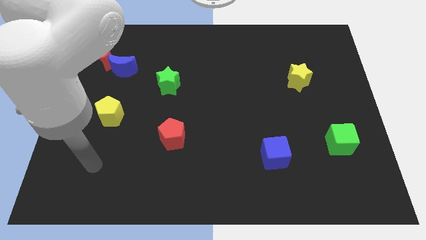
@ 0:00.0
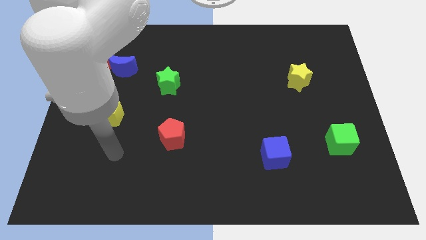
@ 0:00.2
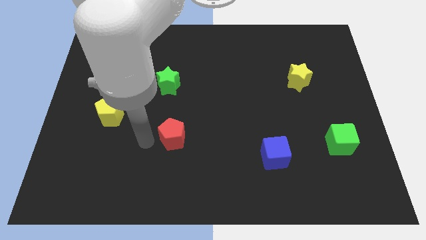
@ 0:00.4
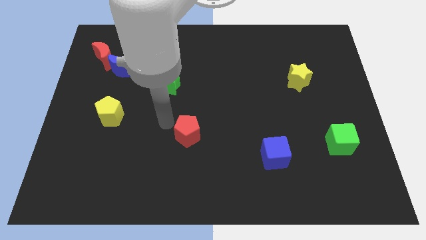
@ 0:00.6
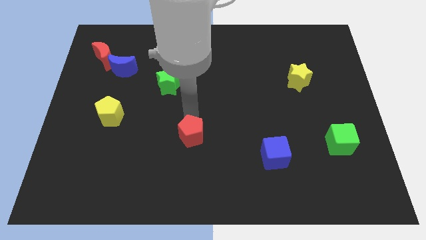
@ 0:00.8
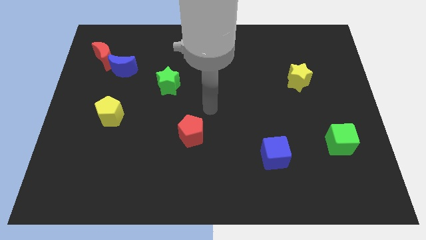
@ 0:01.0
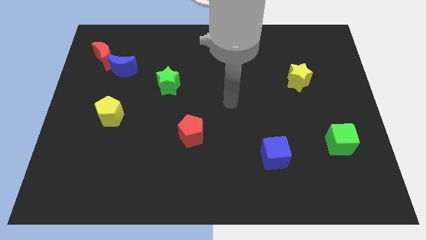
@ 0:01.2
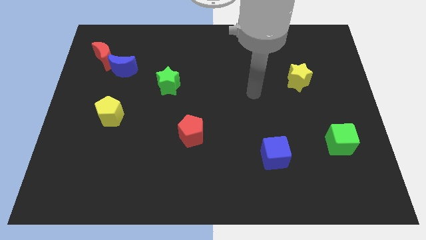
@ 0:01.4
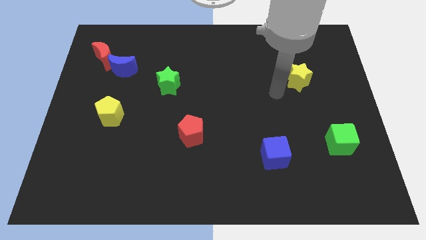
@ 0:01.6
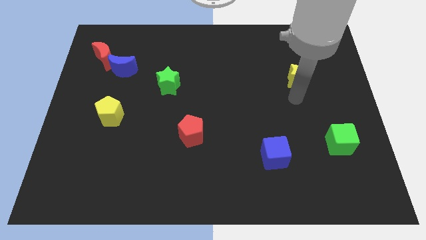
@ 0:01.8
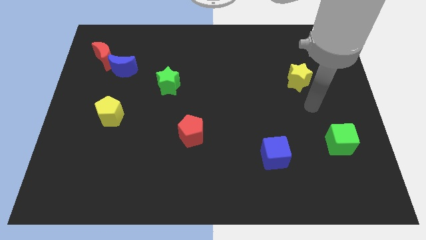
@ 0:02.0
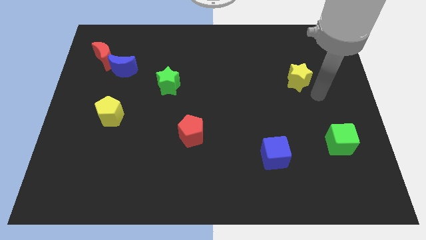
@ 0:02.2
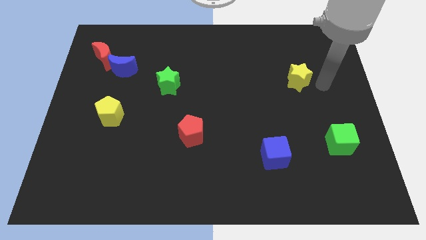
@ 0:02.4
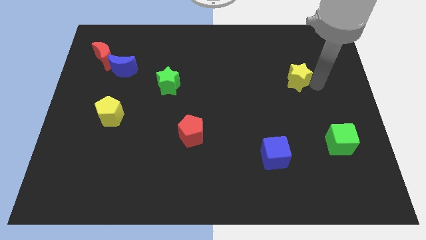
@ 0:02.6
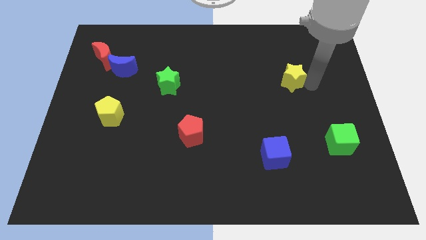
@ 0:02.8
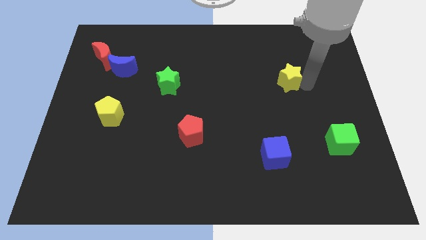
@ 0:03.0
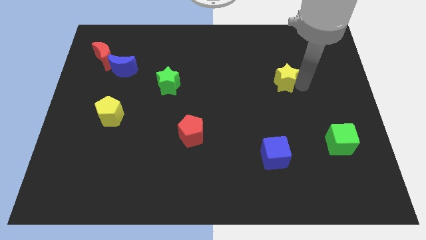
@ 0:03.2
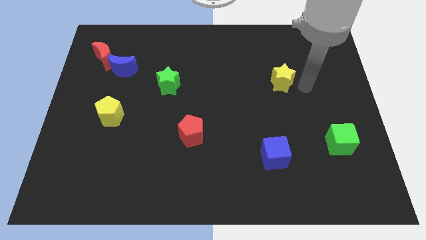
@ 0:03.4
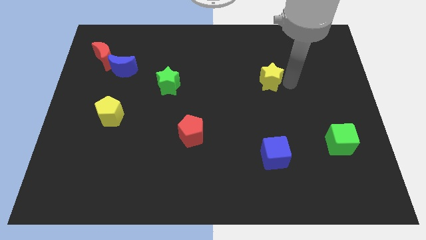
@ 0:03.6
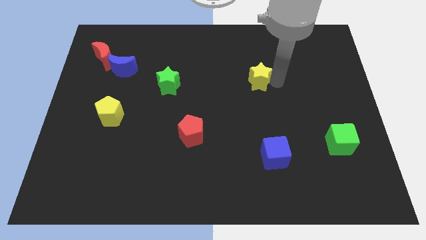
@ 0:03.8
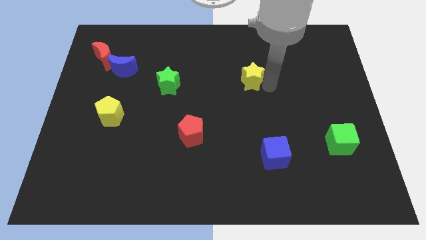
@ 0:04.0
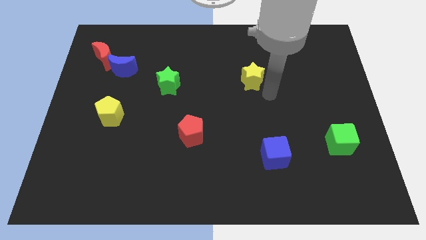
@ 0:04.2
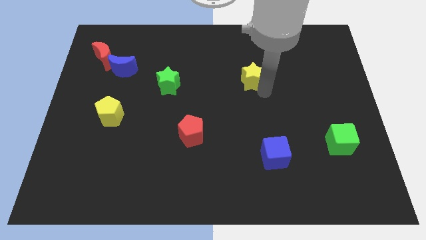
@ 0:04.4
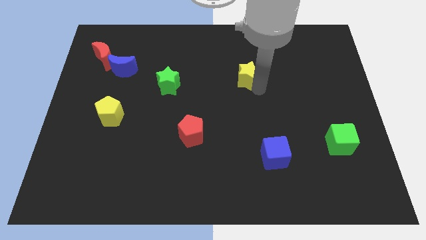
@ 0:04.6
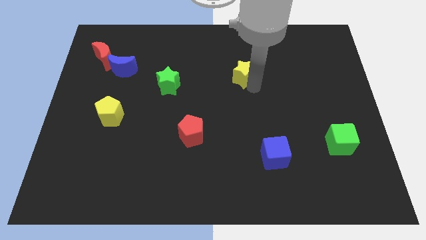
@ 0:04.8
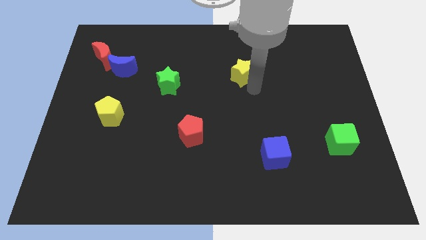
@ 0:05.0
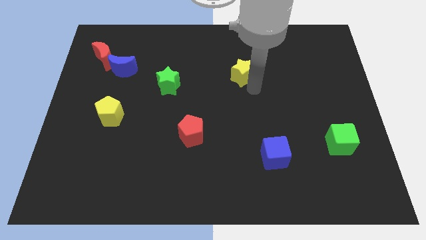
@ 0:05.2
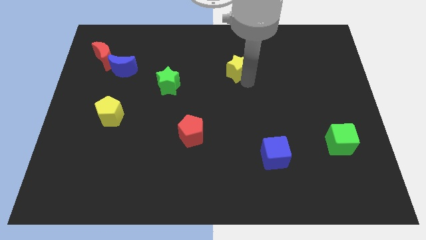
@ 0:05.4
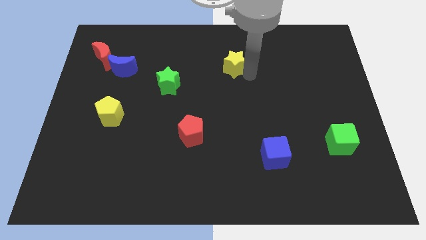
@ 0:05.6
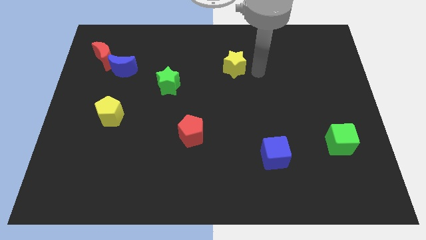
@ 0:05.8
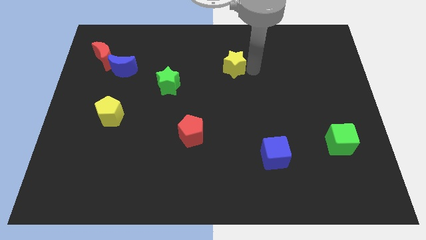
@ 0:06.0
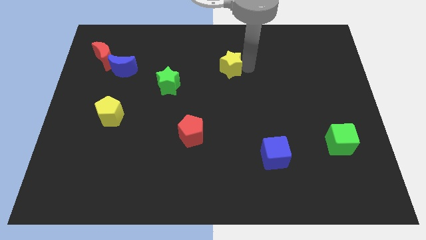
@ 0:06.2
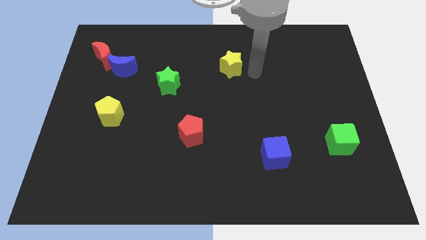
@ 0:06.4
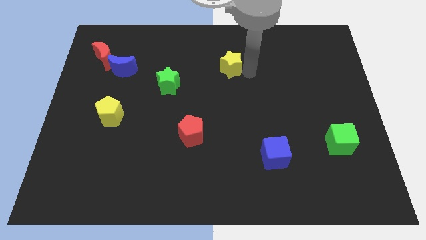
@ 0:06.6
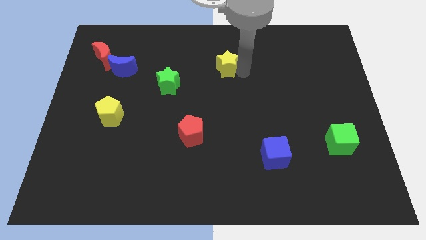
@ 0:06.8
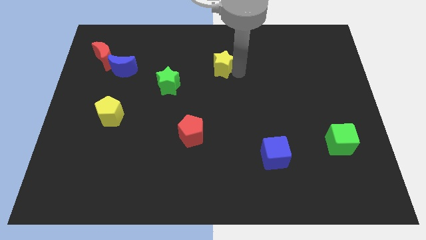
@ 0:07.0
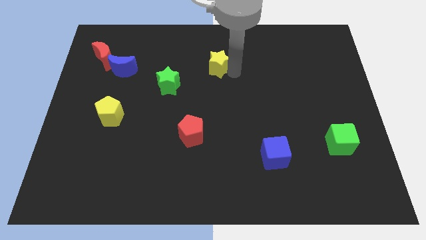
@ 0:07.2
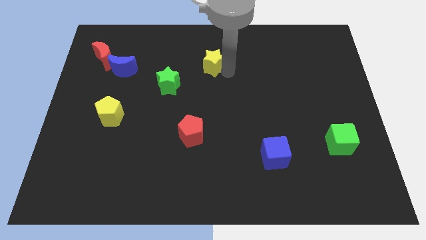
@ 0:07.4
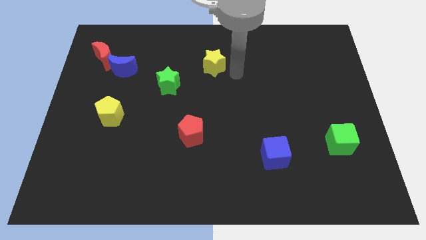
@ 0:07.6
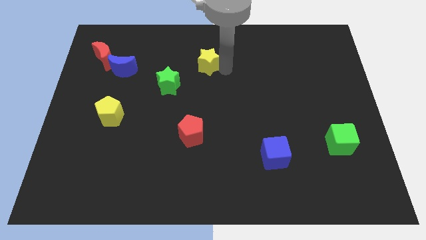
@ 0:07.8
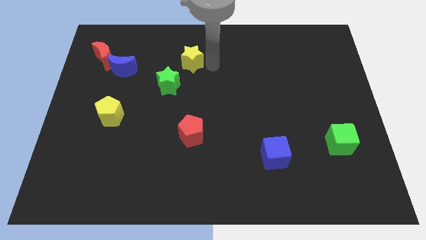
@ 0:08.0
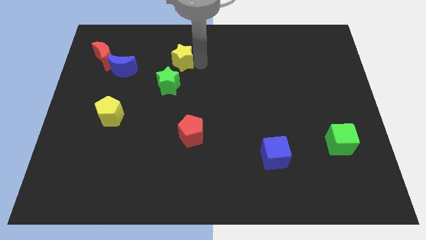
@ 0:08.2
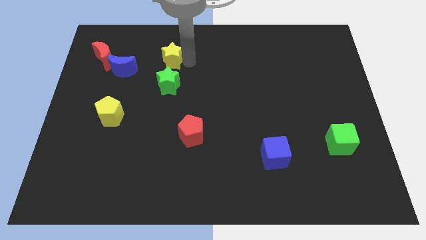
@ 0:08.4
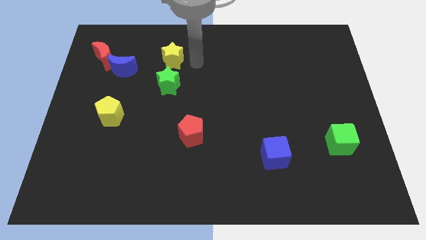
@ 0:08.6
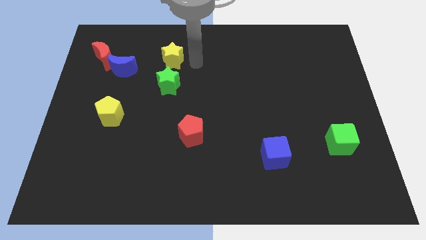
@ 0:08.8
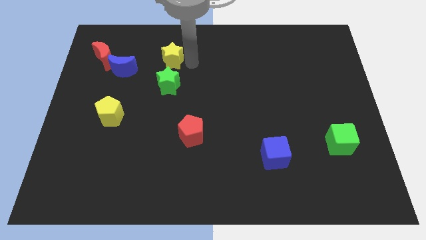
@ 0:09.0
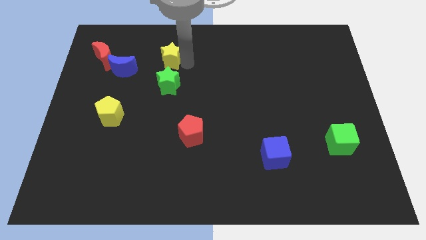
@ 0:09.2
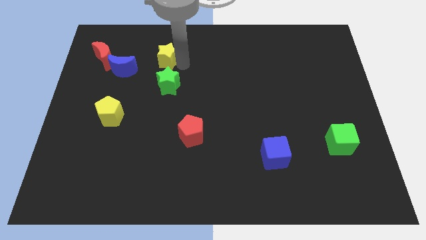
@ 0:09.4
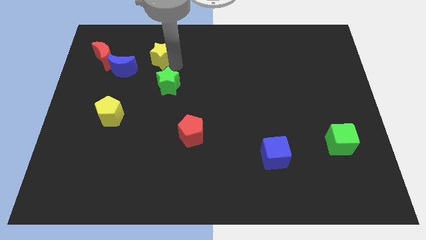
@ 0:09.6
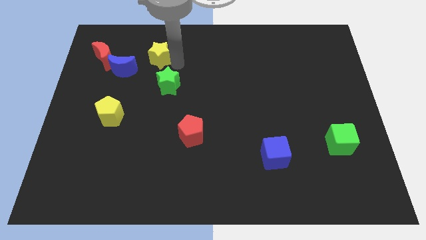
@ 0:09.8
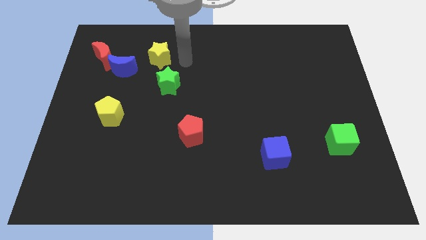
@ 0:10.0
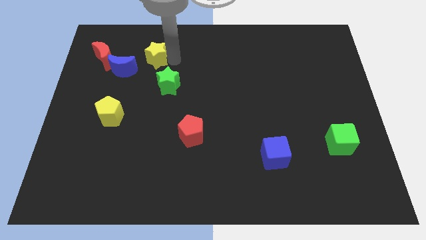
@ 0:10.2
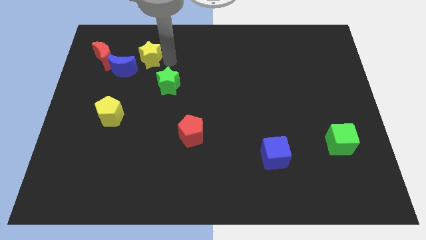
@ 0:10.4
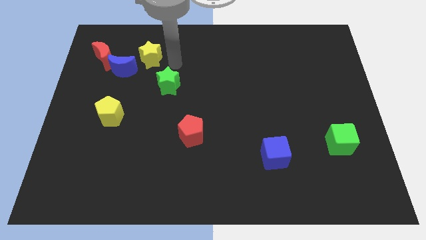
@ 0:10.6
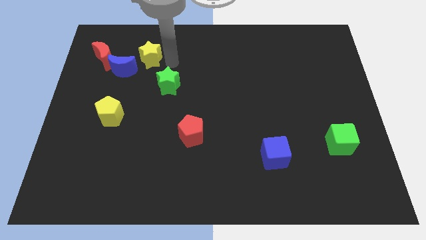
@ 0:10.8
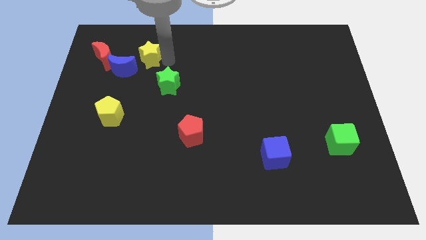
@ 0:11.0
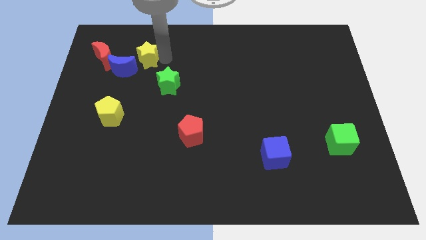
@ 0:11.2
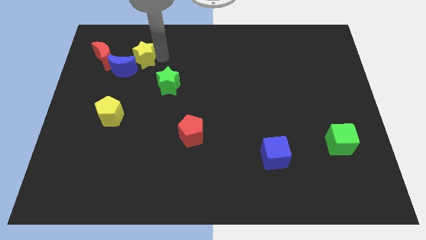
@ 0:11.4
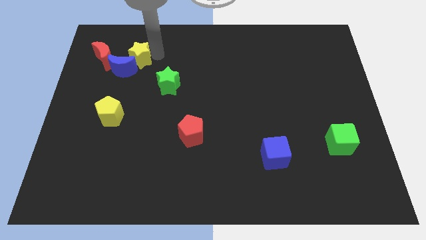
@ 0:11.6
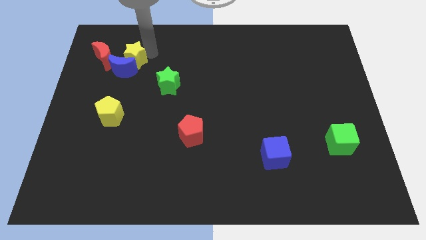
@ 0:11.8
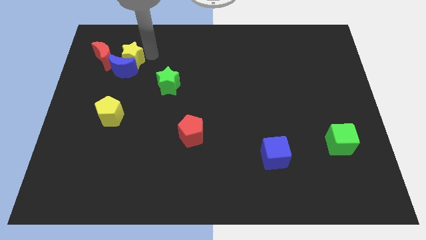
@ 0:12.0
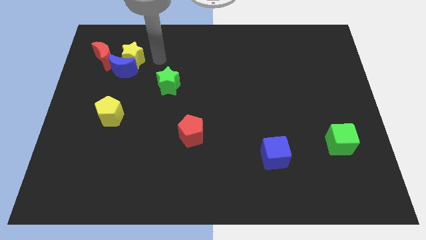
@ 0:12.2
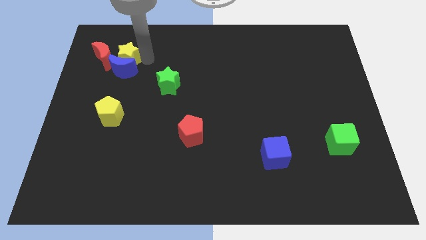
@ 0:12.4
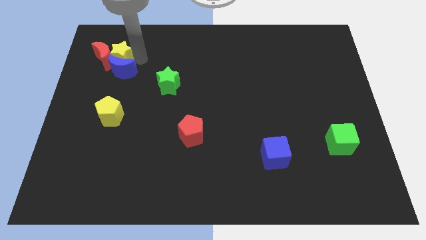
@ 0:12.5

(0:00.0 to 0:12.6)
slide the yellow star towards the red moon

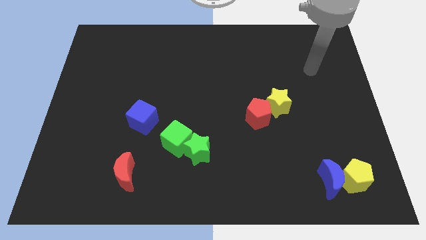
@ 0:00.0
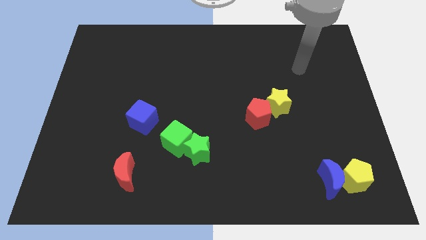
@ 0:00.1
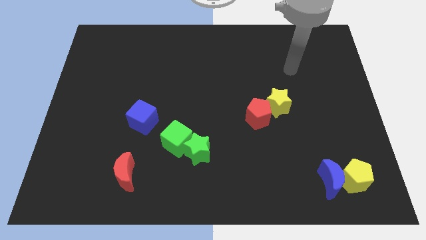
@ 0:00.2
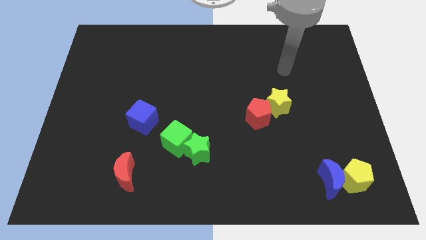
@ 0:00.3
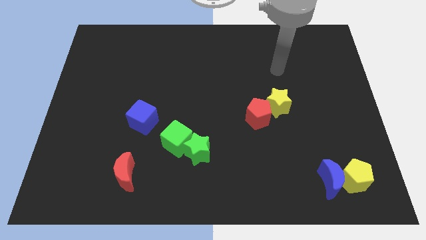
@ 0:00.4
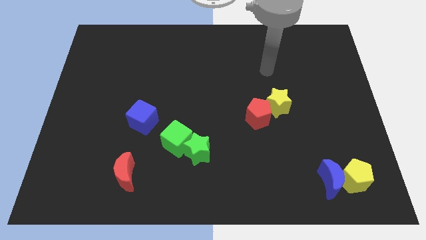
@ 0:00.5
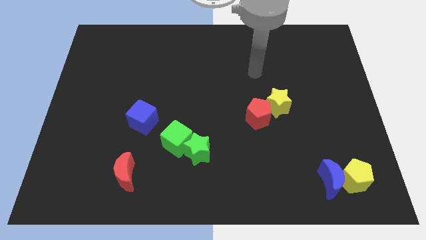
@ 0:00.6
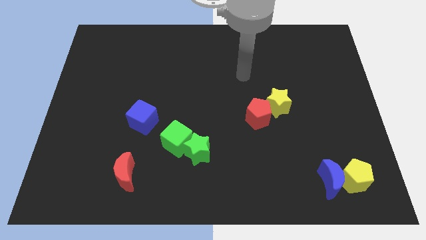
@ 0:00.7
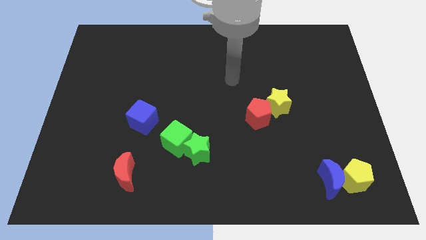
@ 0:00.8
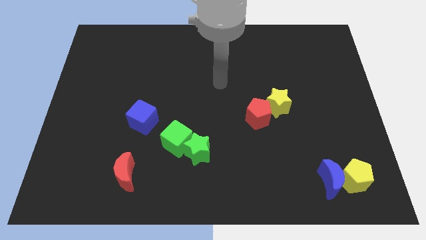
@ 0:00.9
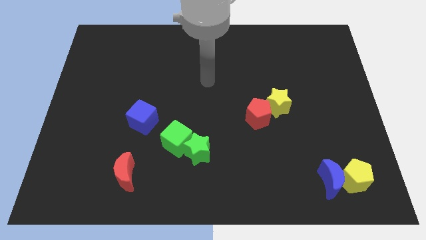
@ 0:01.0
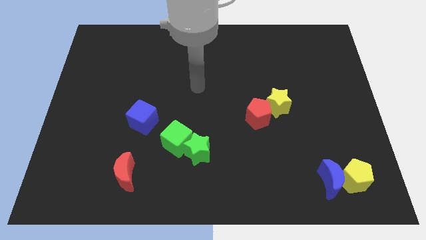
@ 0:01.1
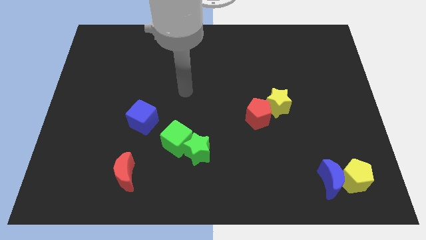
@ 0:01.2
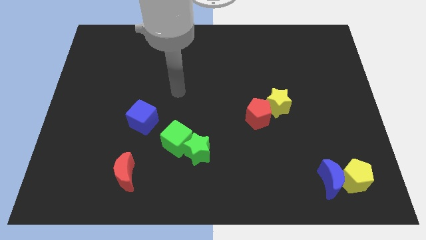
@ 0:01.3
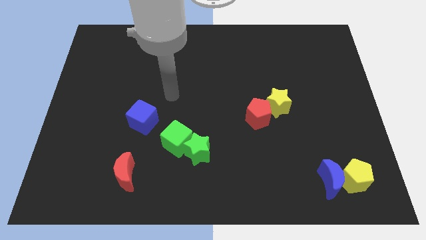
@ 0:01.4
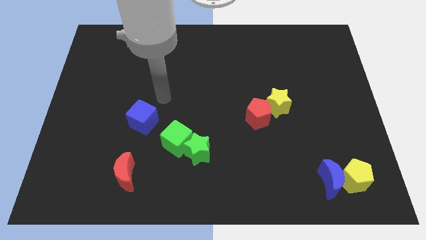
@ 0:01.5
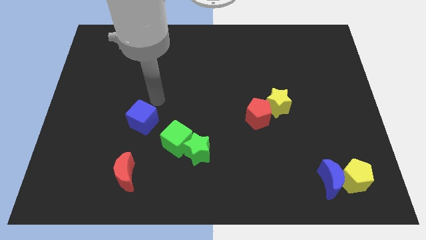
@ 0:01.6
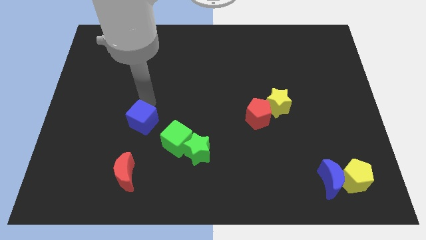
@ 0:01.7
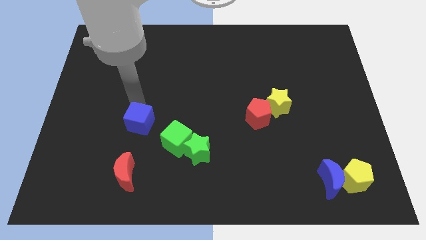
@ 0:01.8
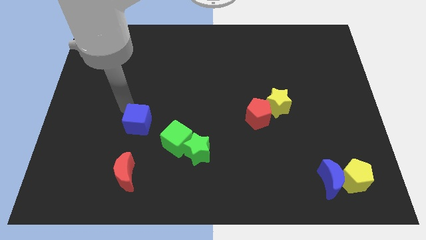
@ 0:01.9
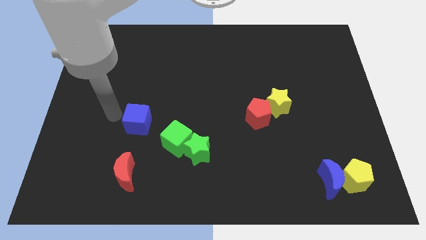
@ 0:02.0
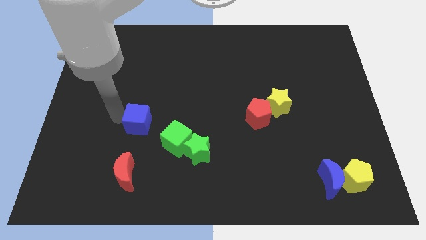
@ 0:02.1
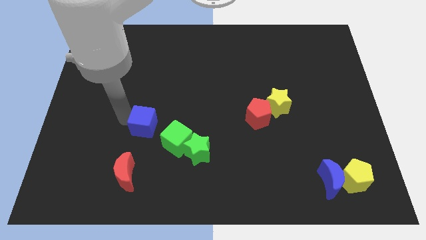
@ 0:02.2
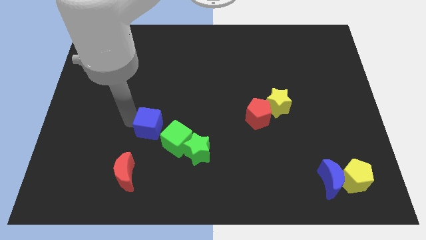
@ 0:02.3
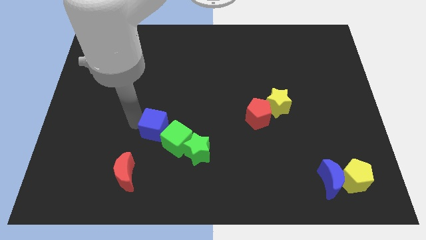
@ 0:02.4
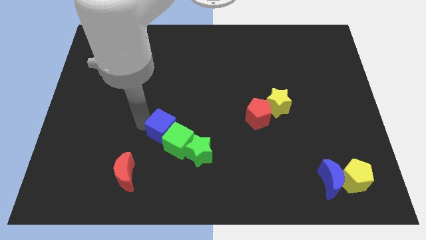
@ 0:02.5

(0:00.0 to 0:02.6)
move the blue cube next to the green cube
